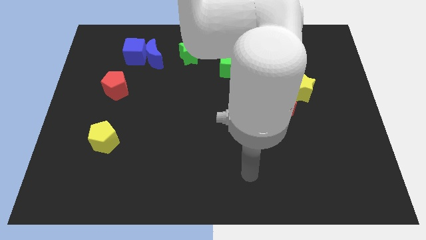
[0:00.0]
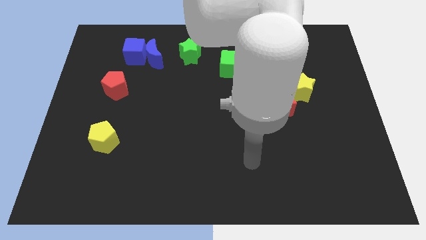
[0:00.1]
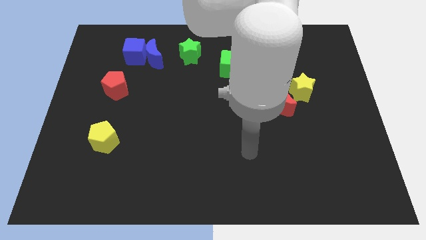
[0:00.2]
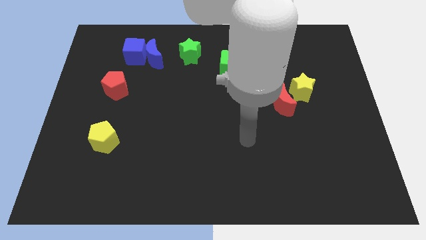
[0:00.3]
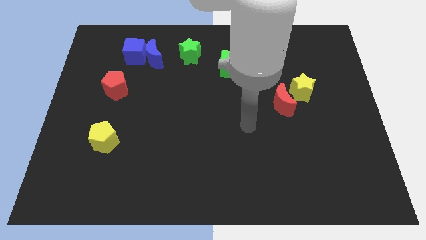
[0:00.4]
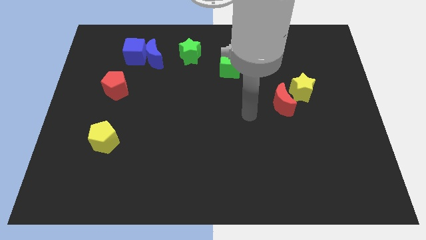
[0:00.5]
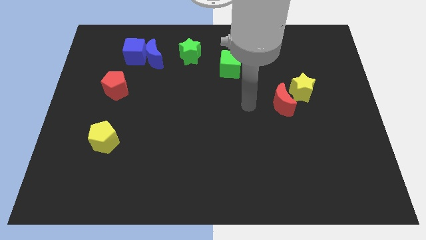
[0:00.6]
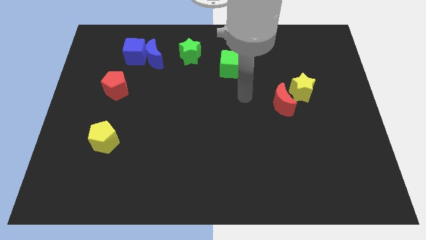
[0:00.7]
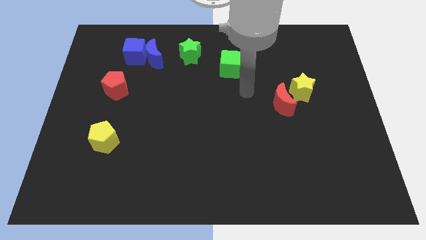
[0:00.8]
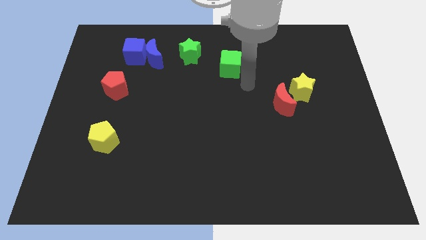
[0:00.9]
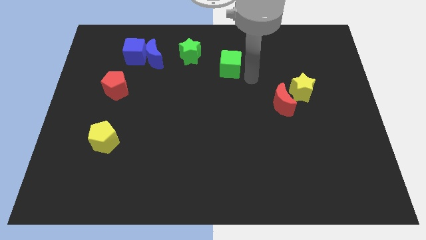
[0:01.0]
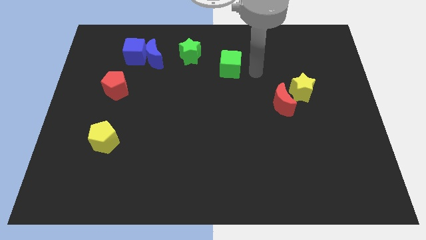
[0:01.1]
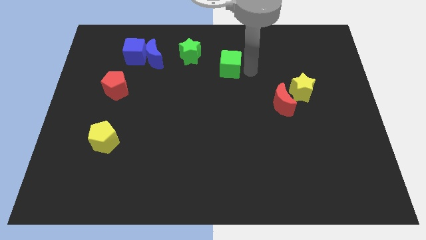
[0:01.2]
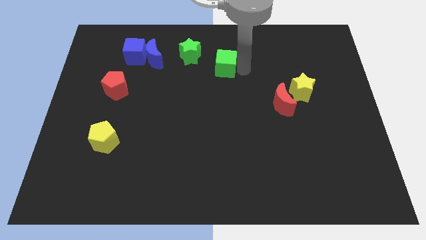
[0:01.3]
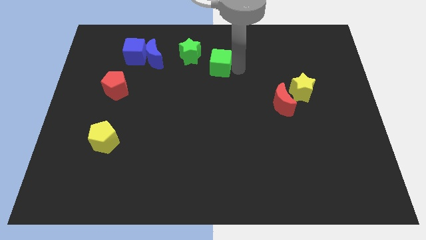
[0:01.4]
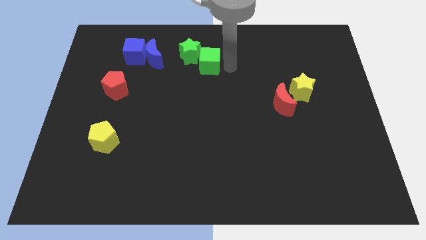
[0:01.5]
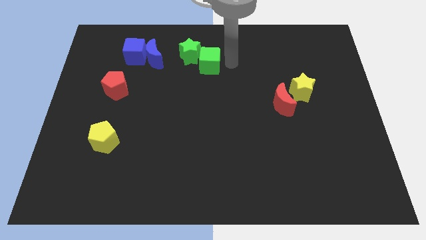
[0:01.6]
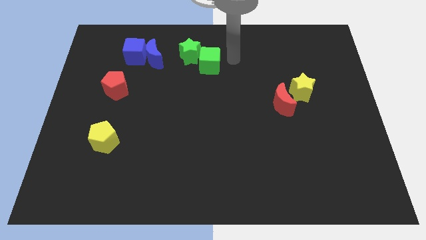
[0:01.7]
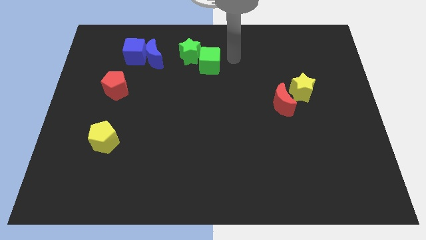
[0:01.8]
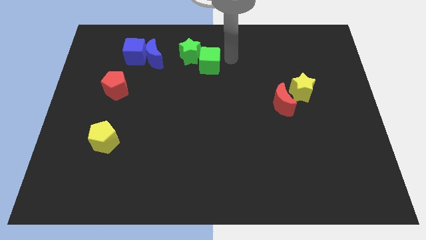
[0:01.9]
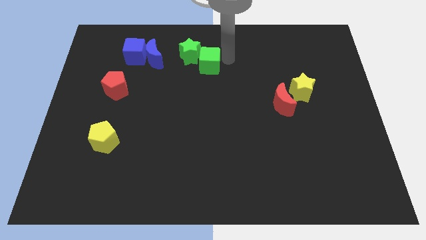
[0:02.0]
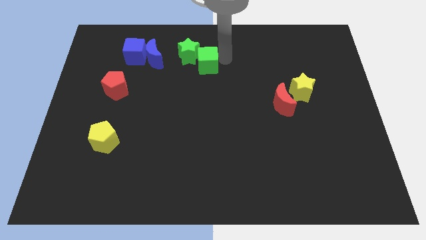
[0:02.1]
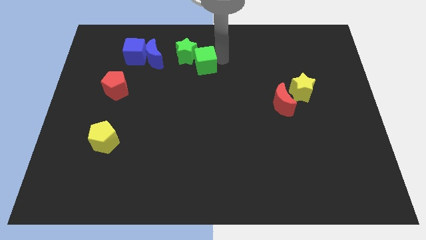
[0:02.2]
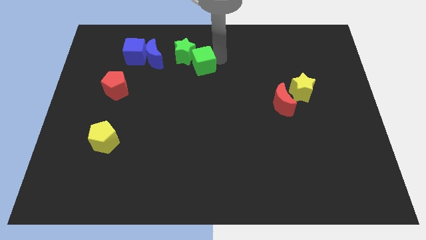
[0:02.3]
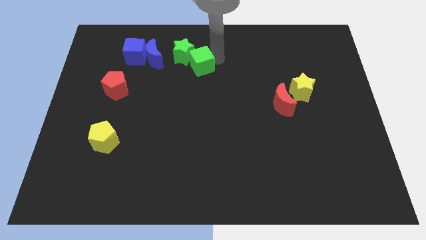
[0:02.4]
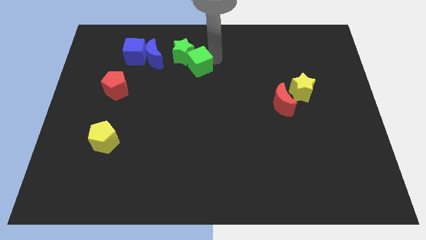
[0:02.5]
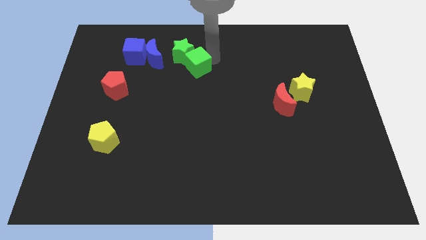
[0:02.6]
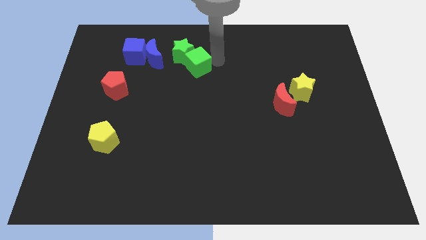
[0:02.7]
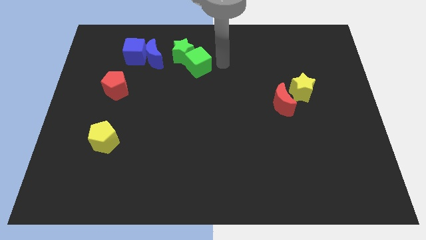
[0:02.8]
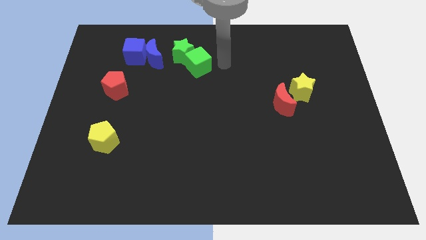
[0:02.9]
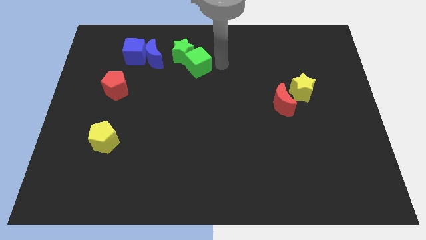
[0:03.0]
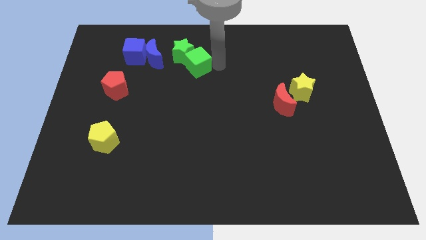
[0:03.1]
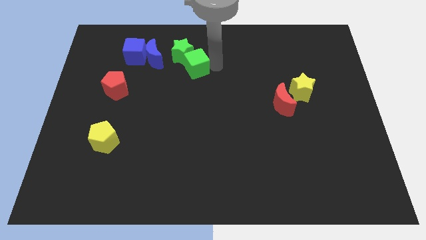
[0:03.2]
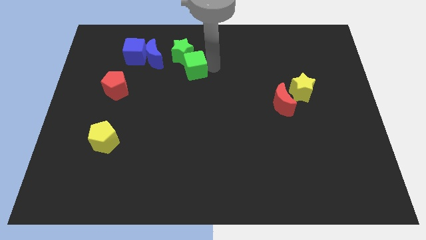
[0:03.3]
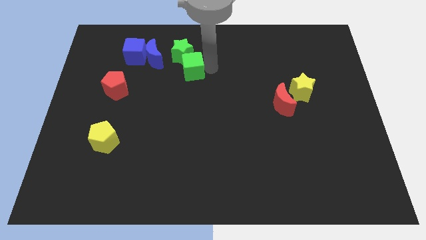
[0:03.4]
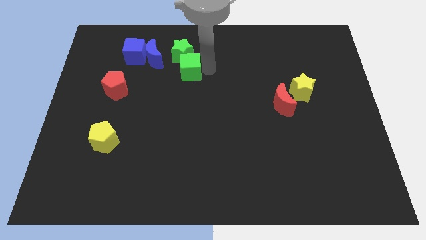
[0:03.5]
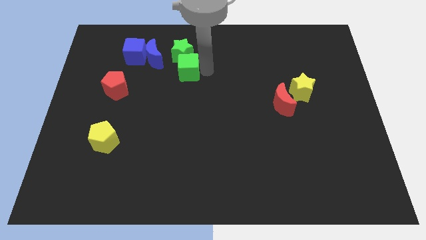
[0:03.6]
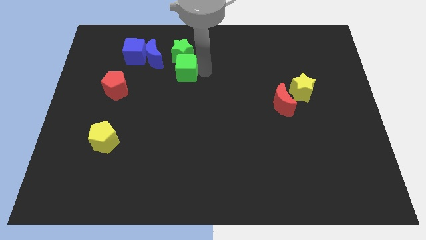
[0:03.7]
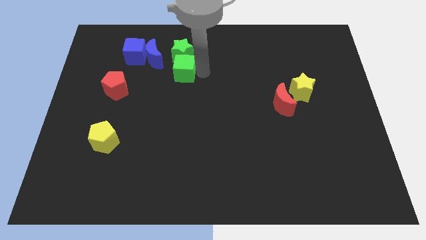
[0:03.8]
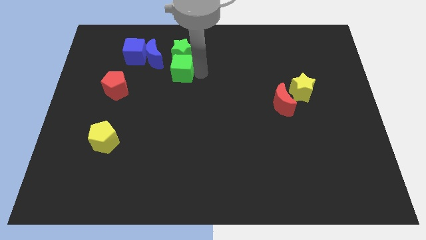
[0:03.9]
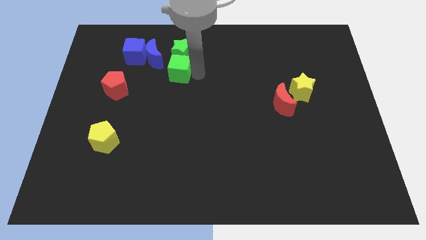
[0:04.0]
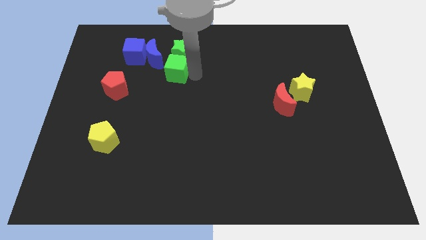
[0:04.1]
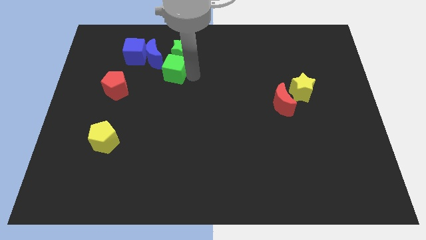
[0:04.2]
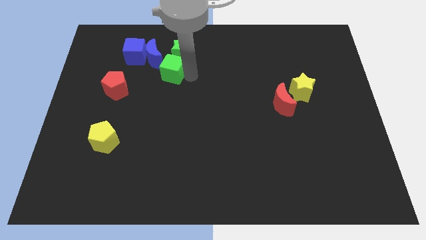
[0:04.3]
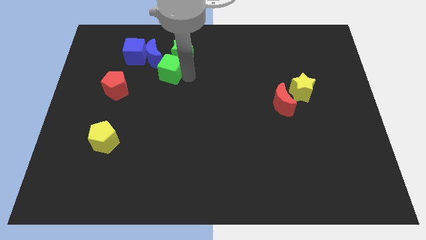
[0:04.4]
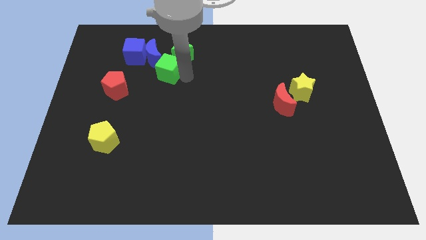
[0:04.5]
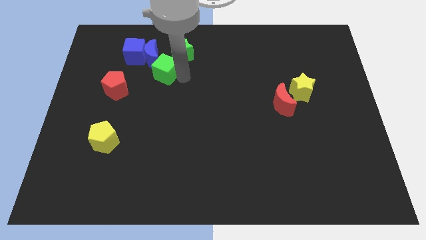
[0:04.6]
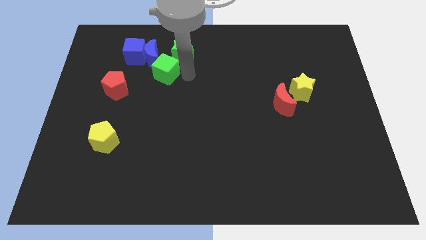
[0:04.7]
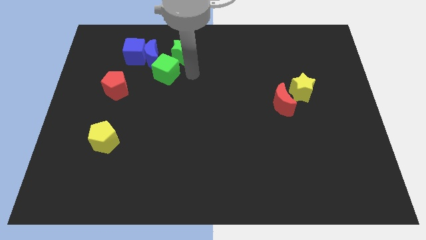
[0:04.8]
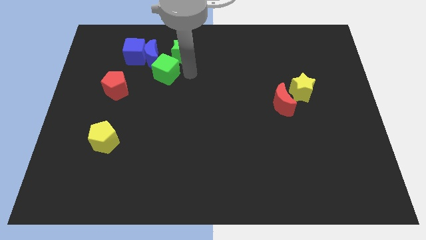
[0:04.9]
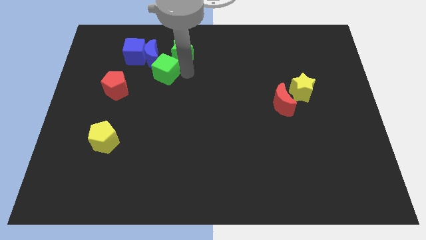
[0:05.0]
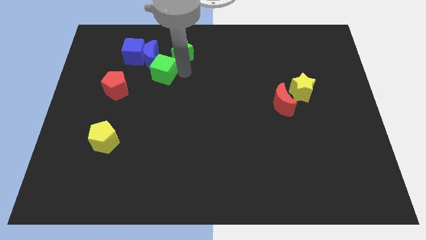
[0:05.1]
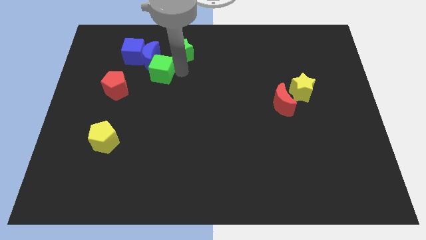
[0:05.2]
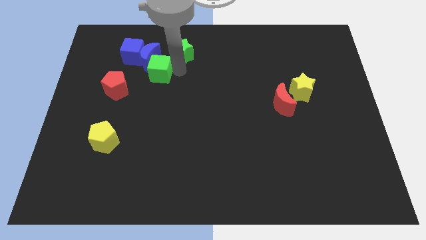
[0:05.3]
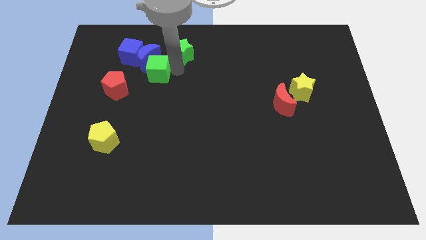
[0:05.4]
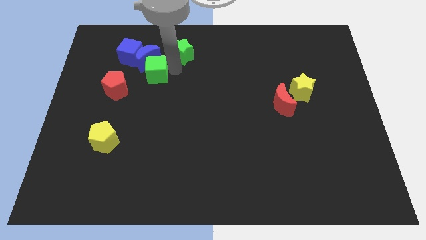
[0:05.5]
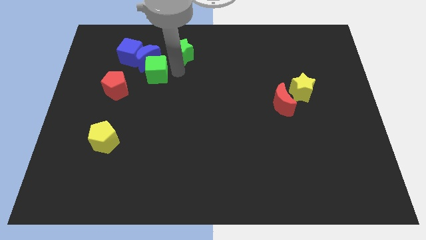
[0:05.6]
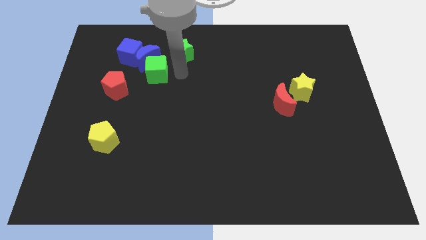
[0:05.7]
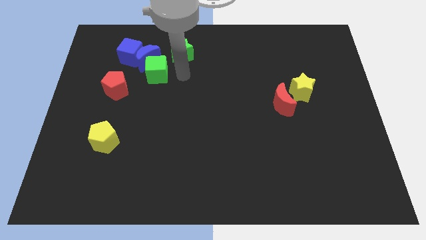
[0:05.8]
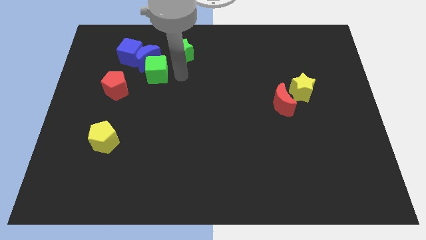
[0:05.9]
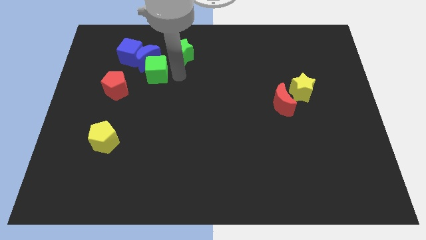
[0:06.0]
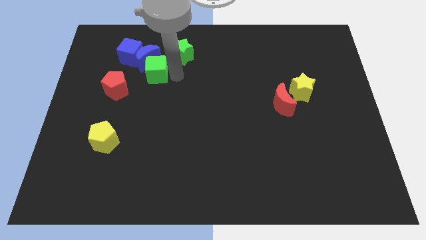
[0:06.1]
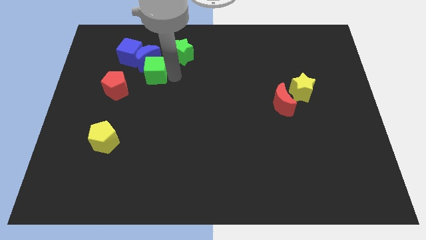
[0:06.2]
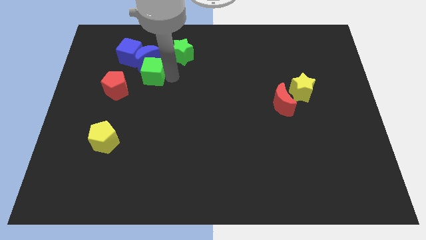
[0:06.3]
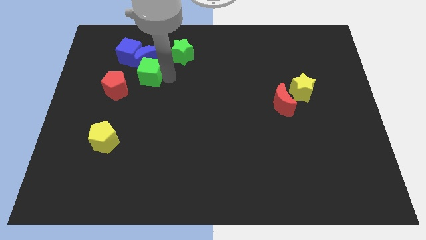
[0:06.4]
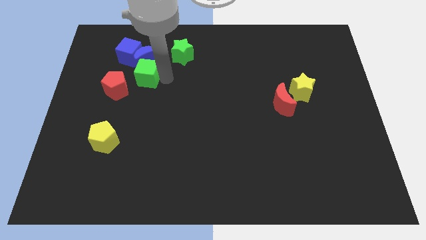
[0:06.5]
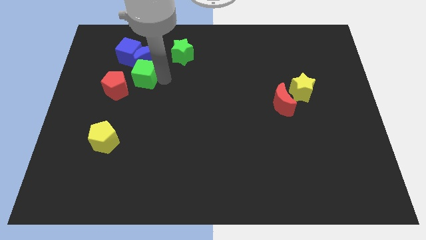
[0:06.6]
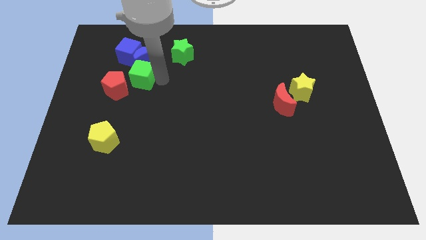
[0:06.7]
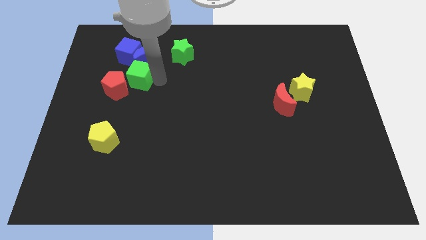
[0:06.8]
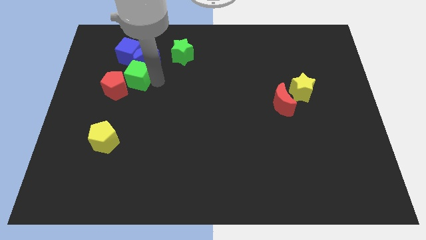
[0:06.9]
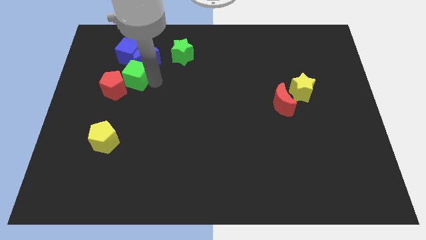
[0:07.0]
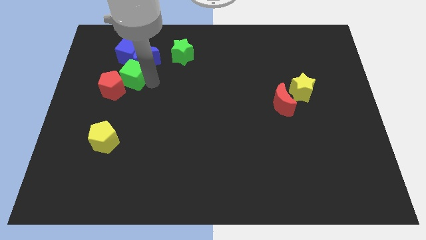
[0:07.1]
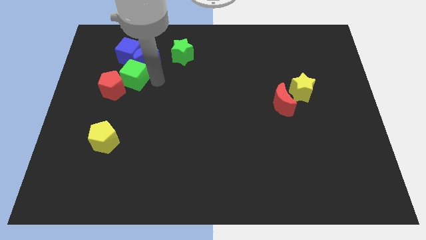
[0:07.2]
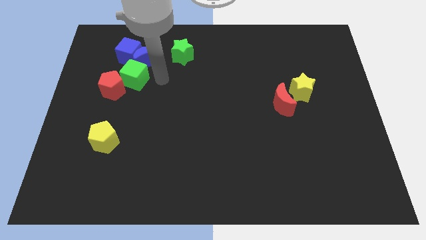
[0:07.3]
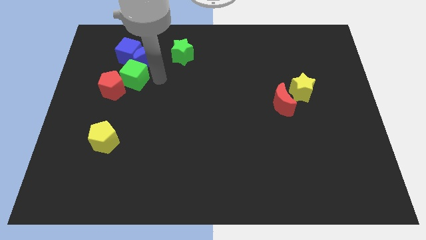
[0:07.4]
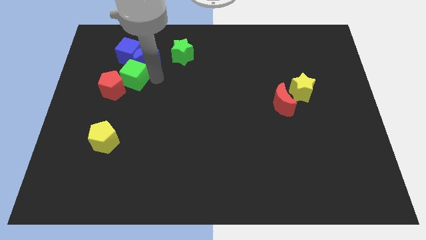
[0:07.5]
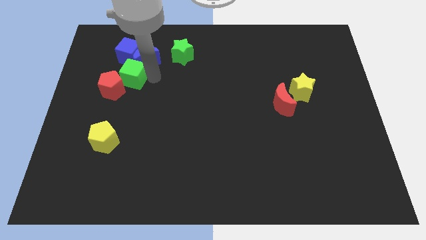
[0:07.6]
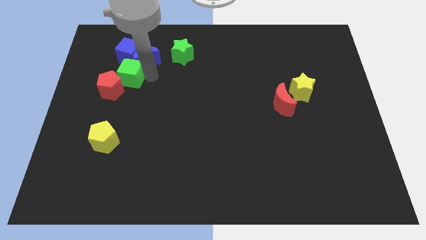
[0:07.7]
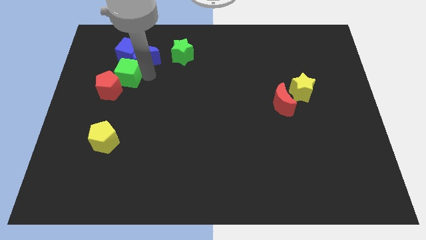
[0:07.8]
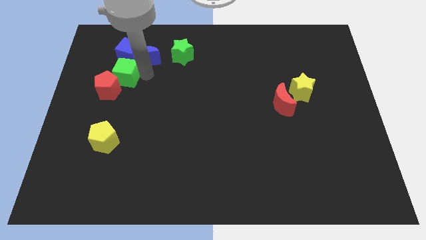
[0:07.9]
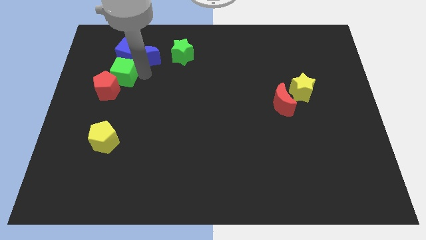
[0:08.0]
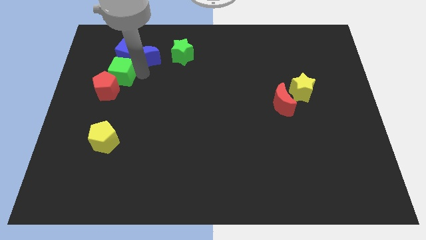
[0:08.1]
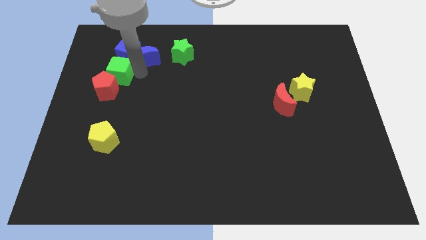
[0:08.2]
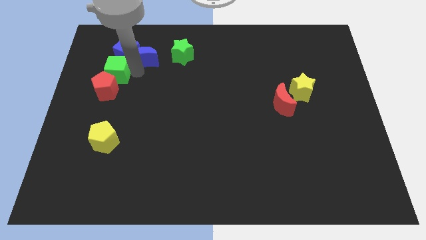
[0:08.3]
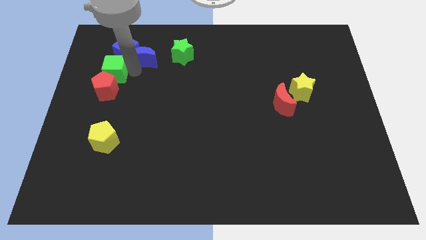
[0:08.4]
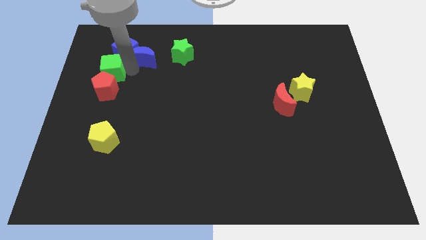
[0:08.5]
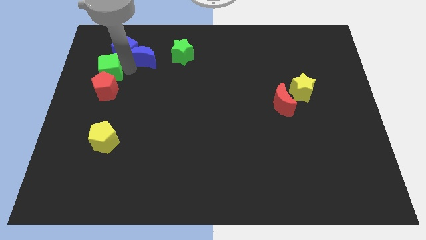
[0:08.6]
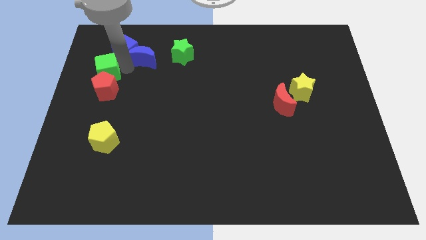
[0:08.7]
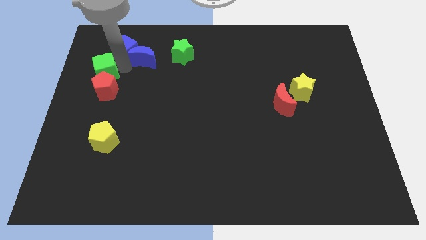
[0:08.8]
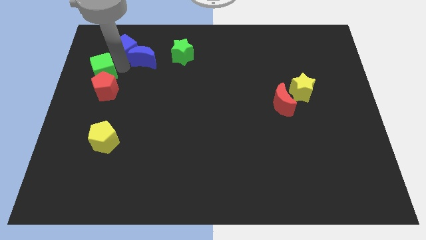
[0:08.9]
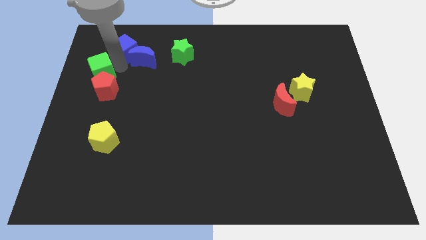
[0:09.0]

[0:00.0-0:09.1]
put the green cube to the center left
